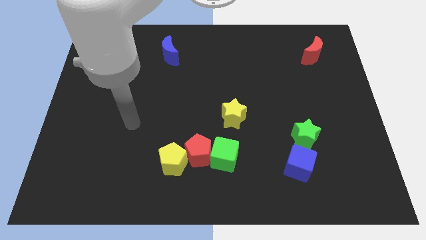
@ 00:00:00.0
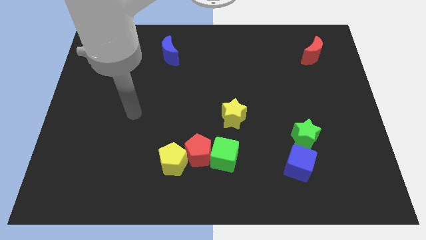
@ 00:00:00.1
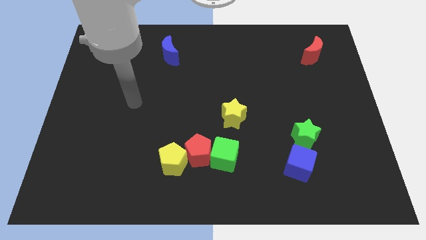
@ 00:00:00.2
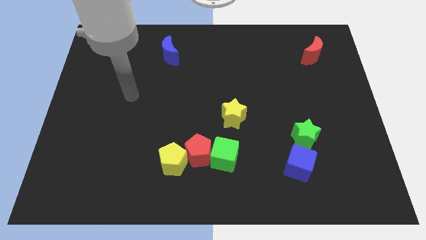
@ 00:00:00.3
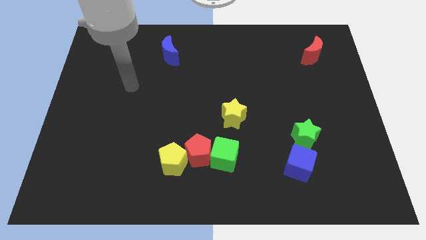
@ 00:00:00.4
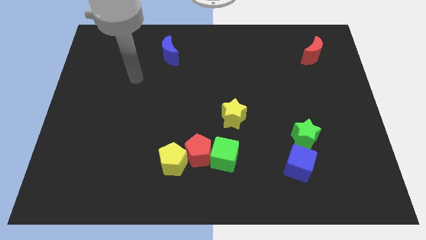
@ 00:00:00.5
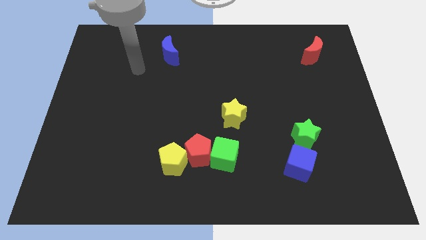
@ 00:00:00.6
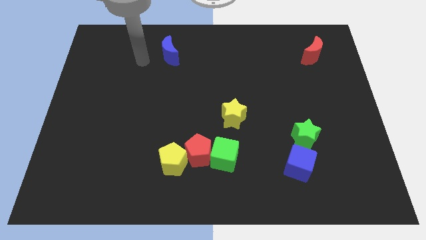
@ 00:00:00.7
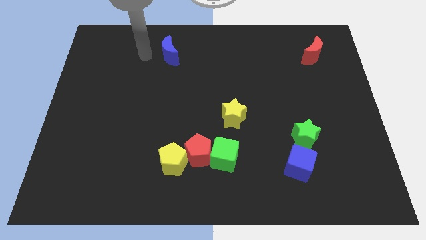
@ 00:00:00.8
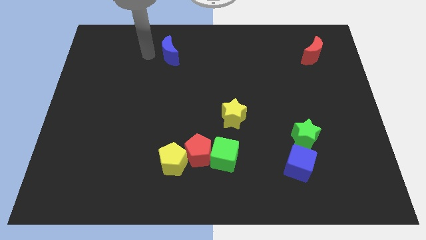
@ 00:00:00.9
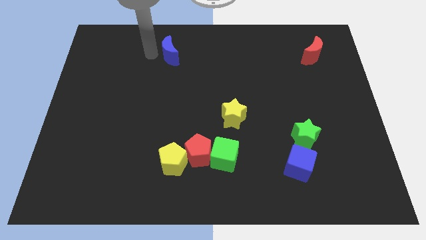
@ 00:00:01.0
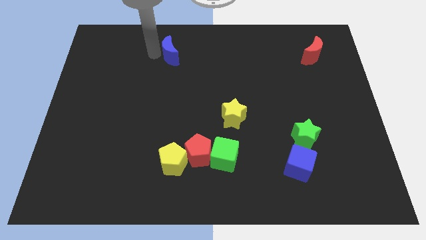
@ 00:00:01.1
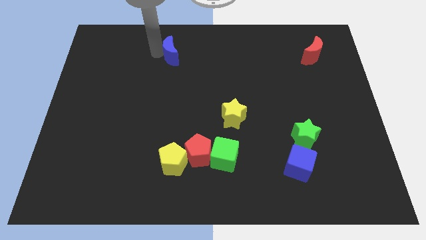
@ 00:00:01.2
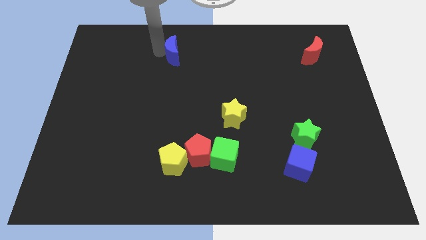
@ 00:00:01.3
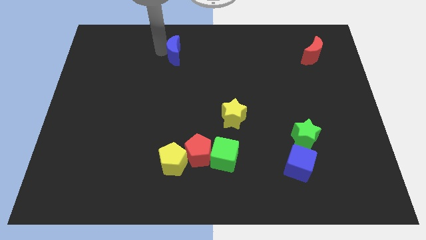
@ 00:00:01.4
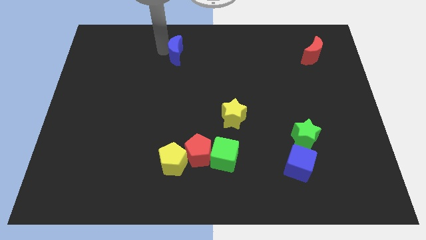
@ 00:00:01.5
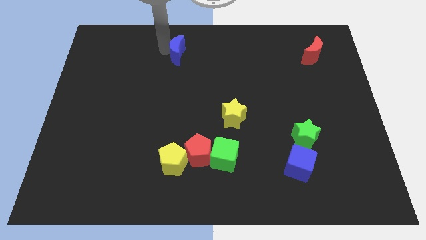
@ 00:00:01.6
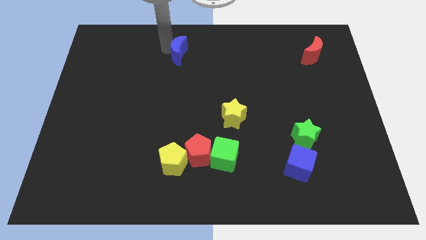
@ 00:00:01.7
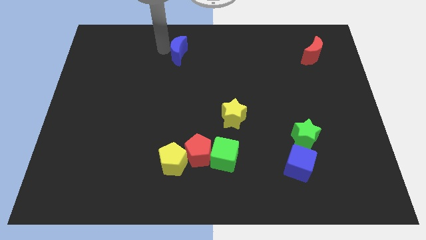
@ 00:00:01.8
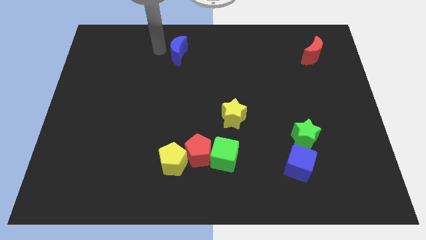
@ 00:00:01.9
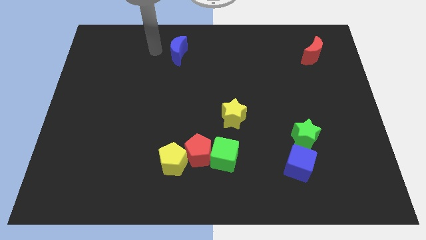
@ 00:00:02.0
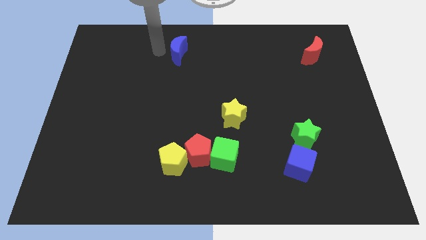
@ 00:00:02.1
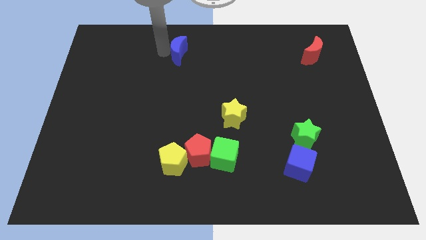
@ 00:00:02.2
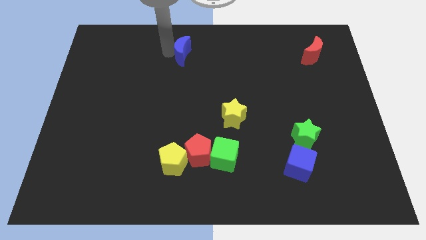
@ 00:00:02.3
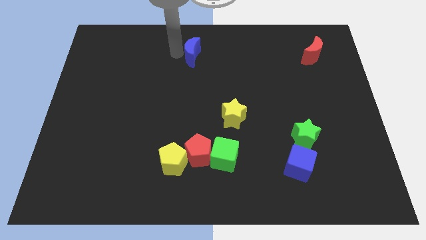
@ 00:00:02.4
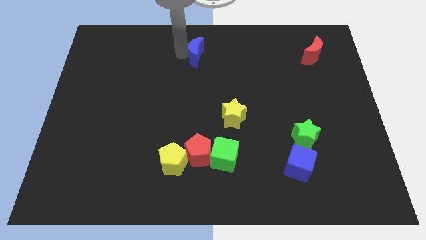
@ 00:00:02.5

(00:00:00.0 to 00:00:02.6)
push the blue moon right somewhat

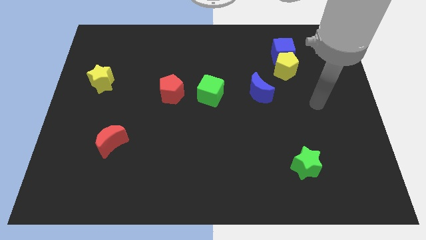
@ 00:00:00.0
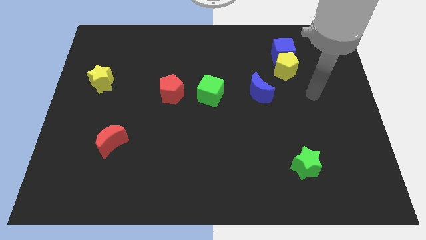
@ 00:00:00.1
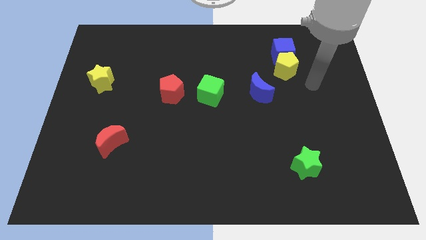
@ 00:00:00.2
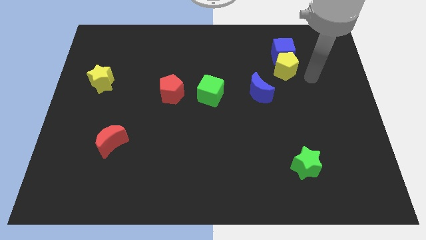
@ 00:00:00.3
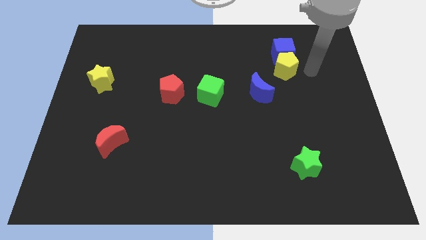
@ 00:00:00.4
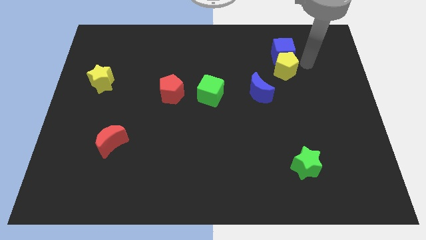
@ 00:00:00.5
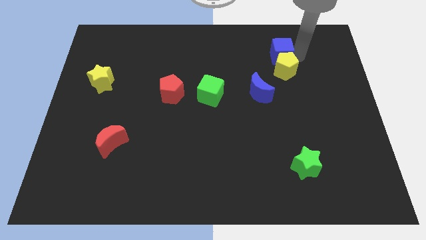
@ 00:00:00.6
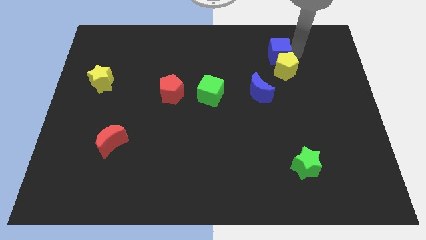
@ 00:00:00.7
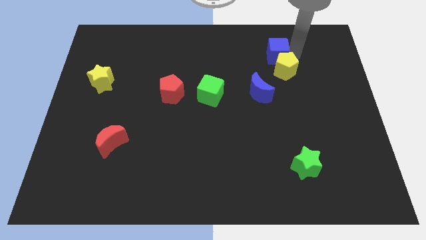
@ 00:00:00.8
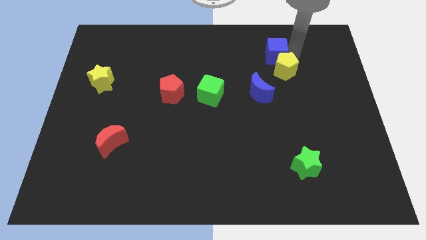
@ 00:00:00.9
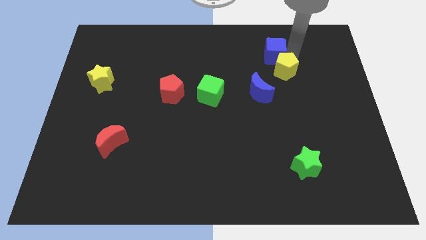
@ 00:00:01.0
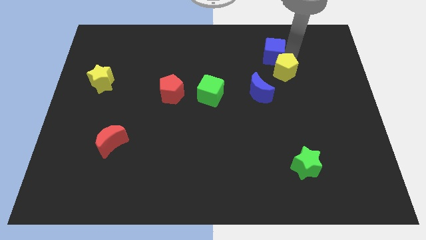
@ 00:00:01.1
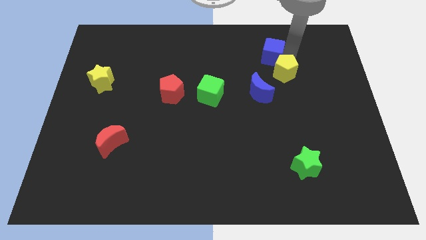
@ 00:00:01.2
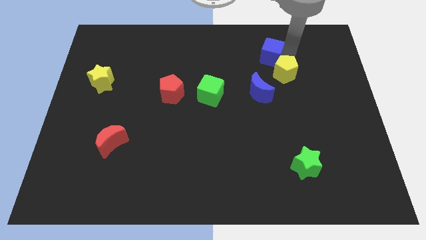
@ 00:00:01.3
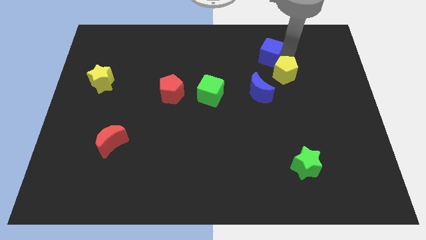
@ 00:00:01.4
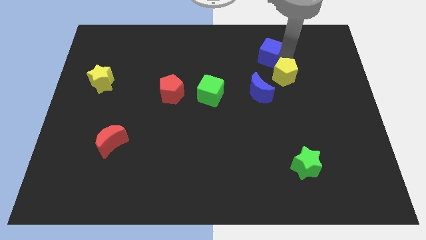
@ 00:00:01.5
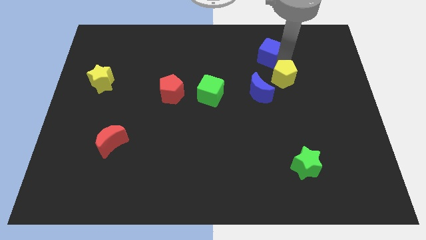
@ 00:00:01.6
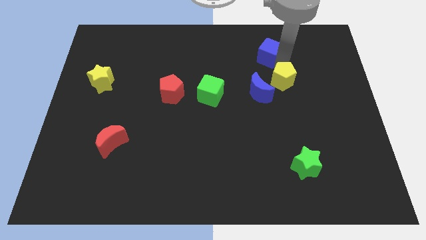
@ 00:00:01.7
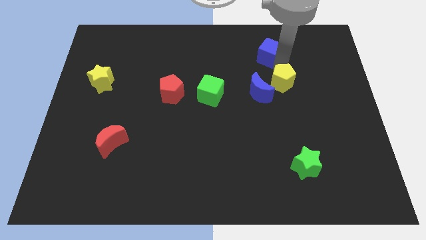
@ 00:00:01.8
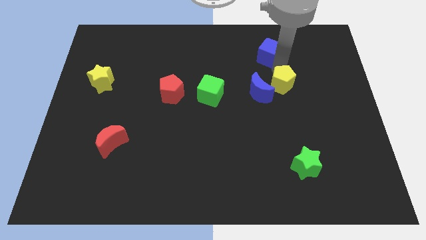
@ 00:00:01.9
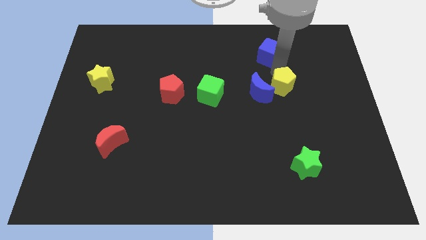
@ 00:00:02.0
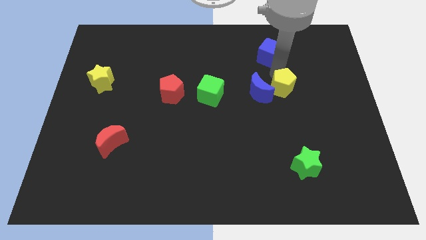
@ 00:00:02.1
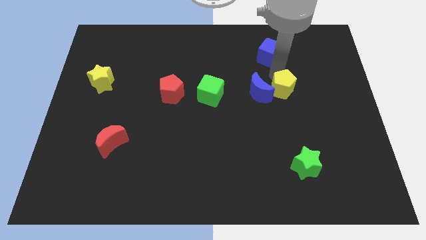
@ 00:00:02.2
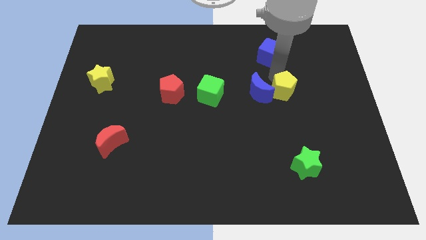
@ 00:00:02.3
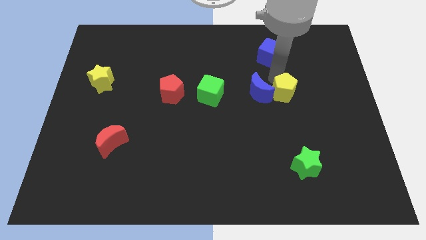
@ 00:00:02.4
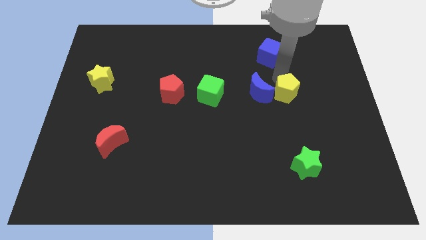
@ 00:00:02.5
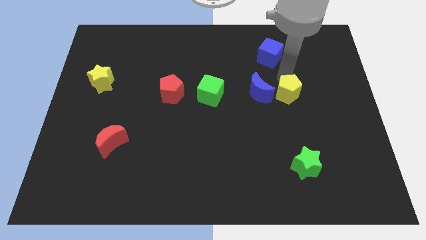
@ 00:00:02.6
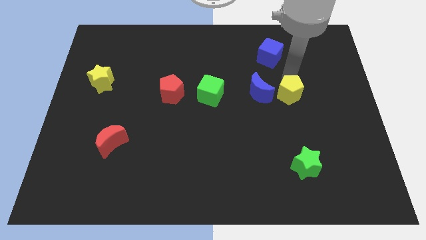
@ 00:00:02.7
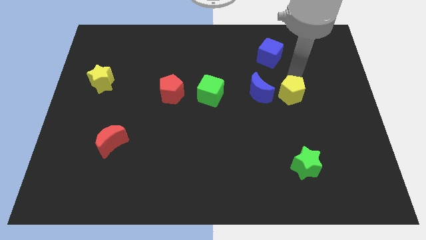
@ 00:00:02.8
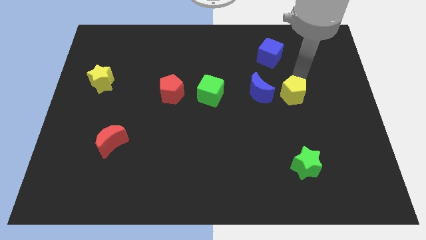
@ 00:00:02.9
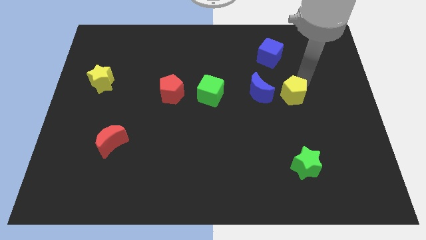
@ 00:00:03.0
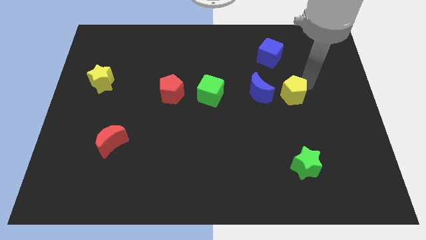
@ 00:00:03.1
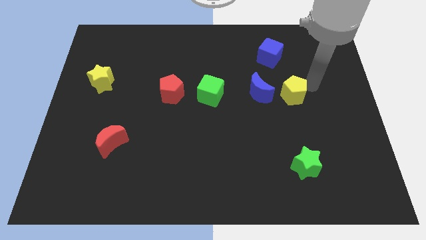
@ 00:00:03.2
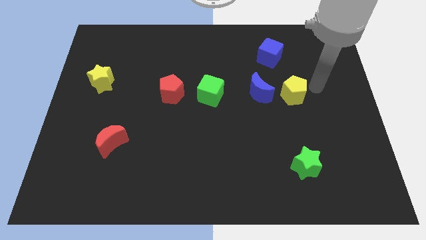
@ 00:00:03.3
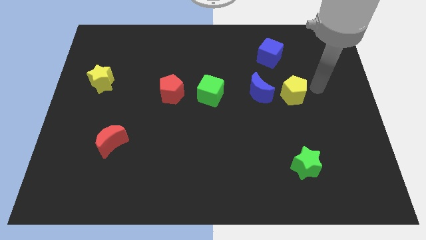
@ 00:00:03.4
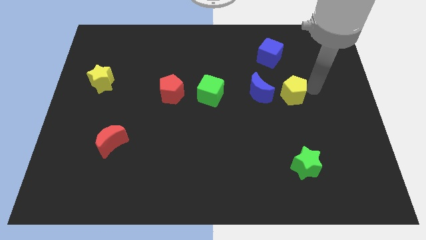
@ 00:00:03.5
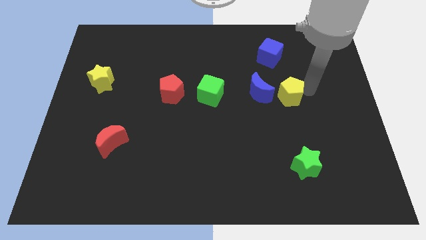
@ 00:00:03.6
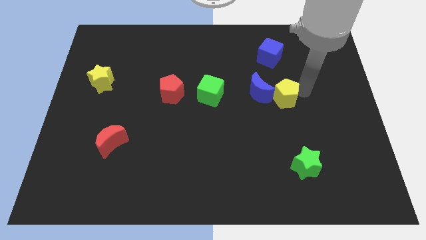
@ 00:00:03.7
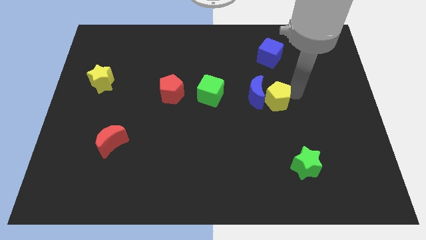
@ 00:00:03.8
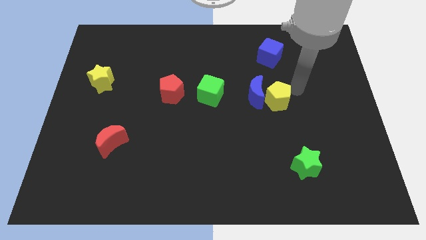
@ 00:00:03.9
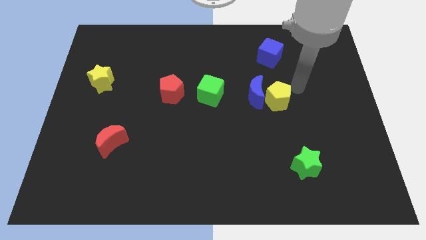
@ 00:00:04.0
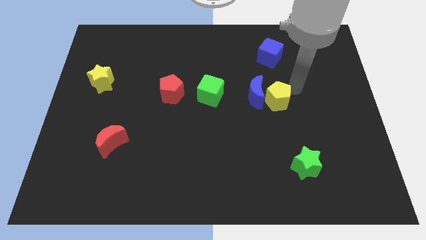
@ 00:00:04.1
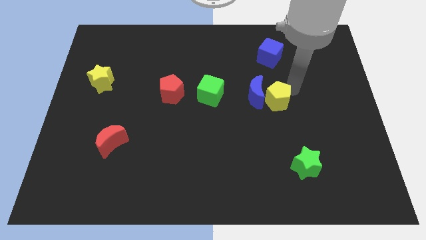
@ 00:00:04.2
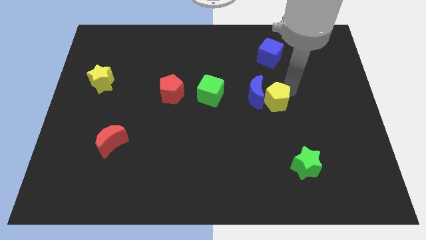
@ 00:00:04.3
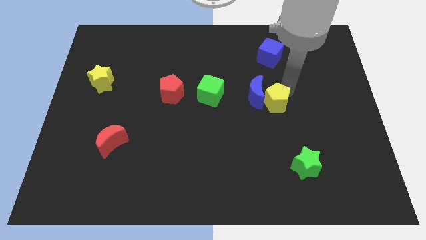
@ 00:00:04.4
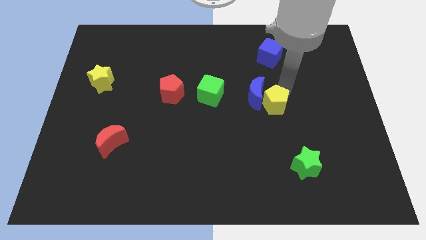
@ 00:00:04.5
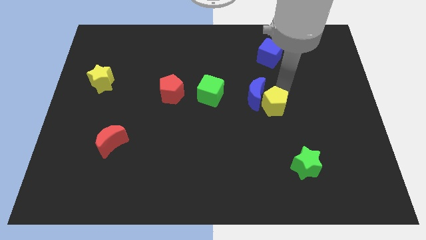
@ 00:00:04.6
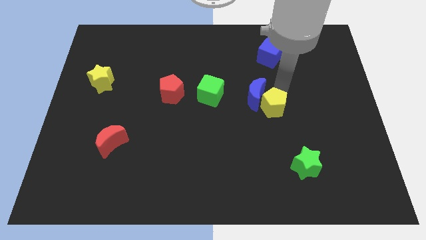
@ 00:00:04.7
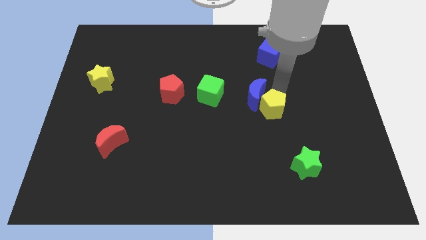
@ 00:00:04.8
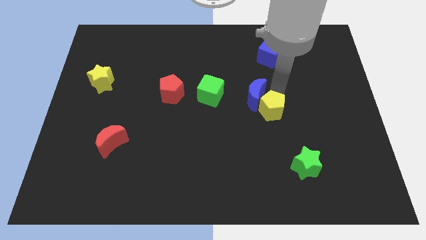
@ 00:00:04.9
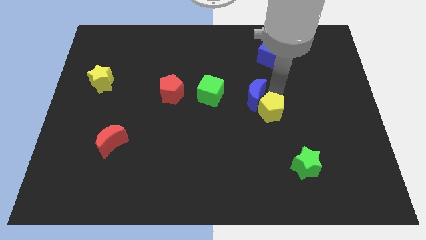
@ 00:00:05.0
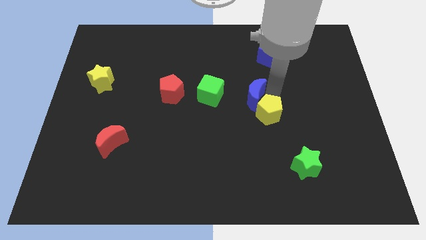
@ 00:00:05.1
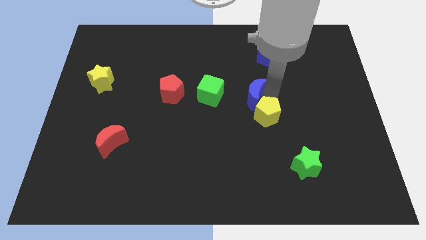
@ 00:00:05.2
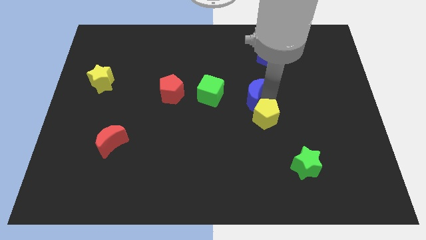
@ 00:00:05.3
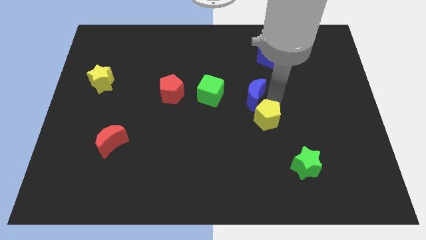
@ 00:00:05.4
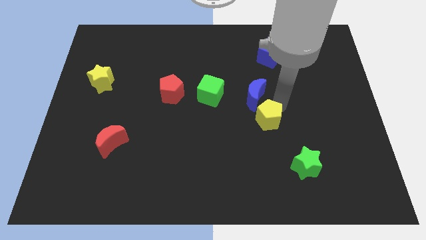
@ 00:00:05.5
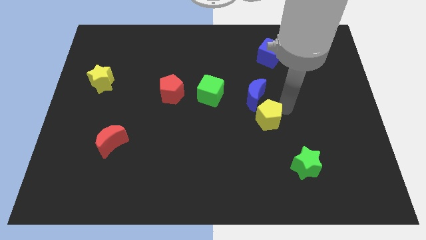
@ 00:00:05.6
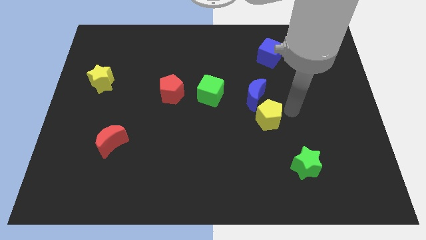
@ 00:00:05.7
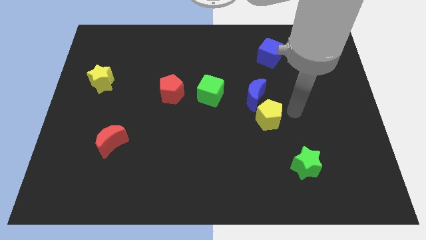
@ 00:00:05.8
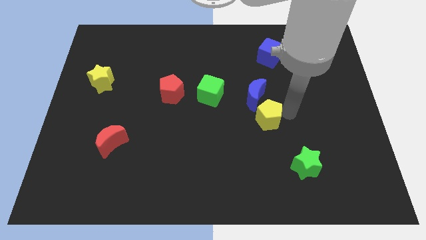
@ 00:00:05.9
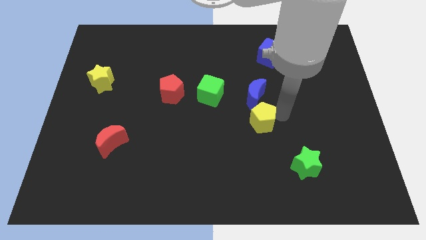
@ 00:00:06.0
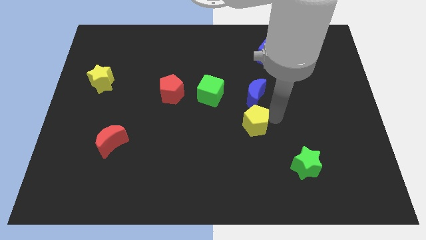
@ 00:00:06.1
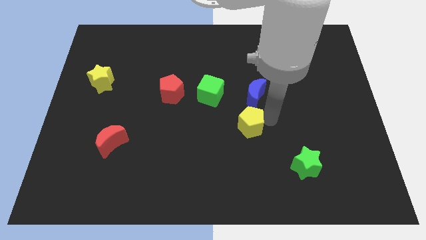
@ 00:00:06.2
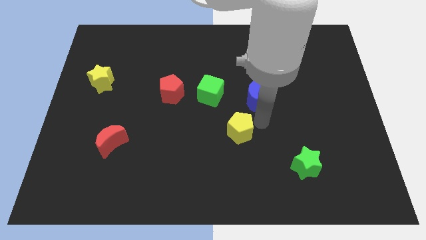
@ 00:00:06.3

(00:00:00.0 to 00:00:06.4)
slide the yellow pentagon diagonally down and left
